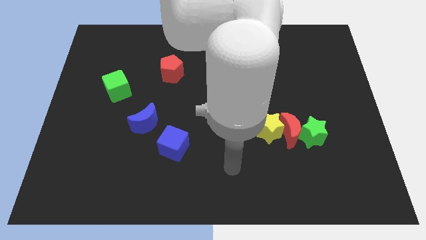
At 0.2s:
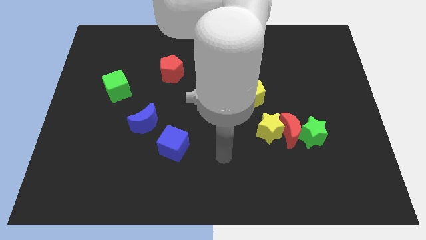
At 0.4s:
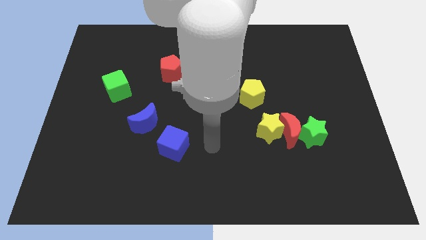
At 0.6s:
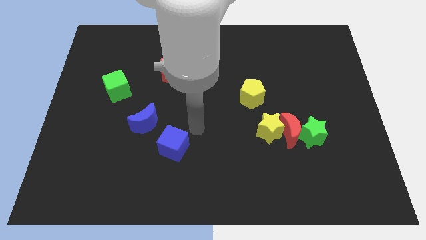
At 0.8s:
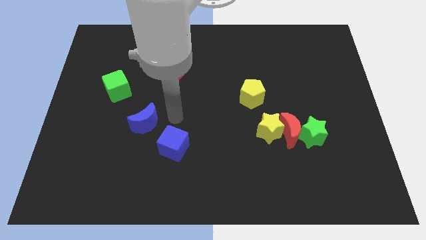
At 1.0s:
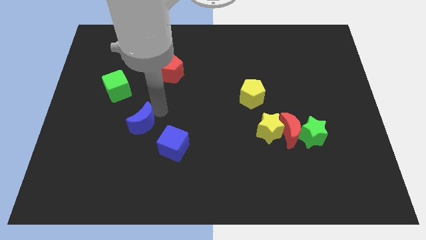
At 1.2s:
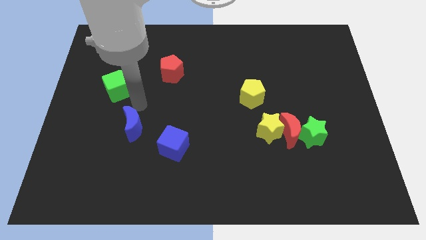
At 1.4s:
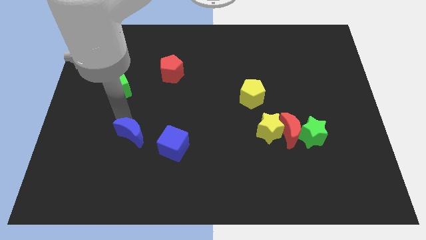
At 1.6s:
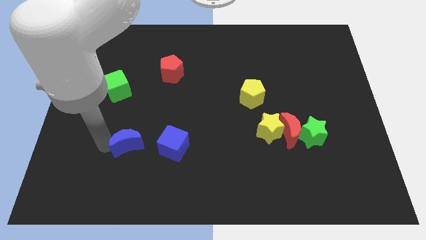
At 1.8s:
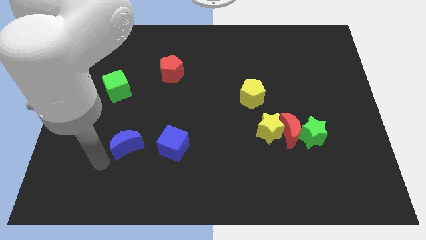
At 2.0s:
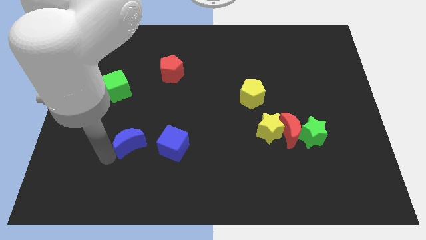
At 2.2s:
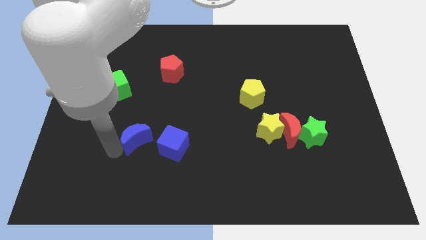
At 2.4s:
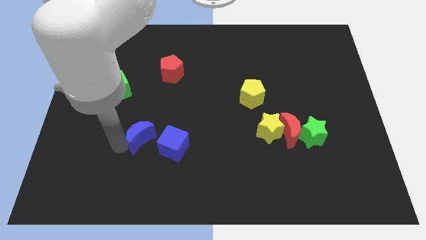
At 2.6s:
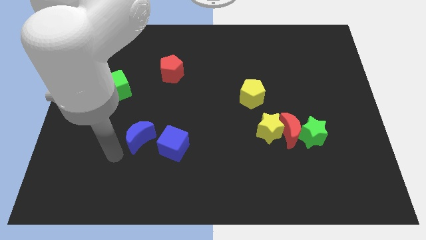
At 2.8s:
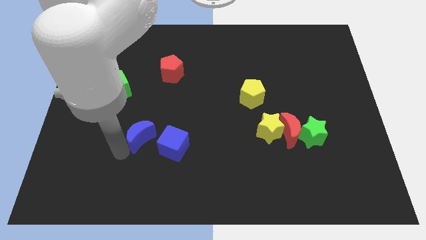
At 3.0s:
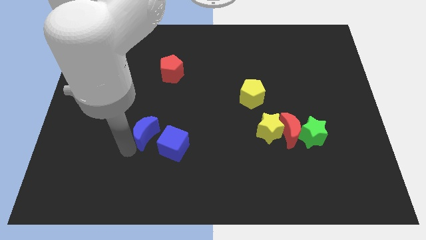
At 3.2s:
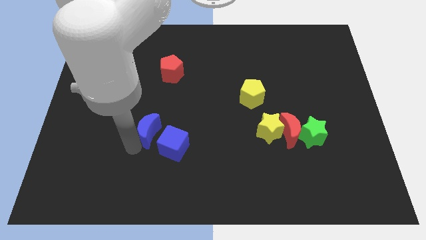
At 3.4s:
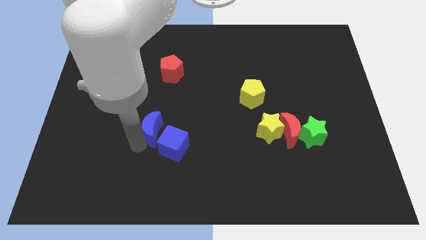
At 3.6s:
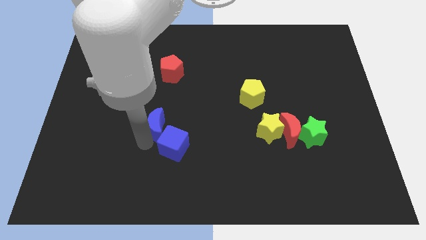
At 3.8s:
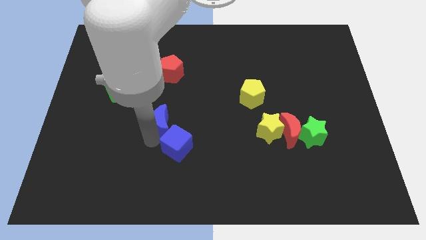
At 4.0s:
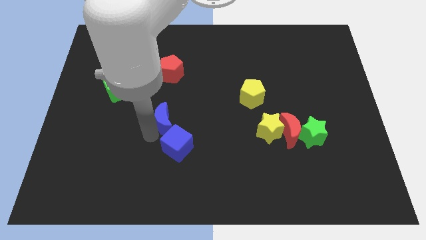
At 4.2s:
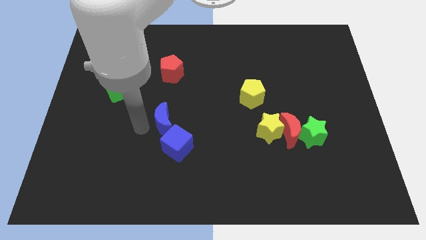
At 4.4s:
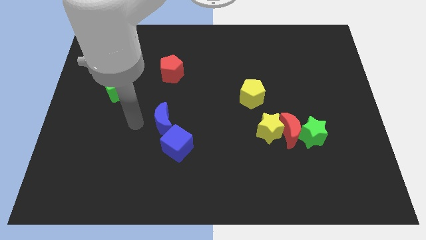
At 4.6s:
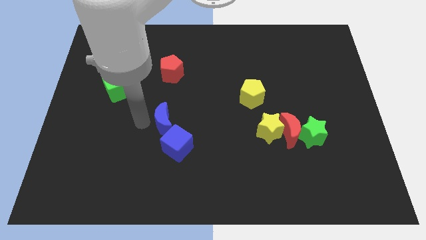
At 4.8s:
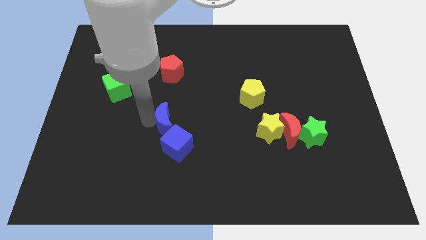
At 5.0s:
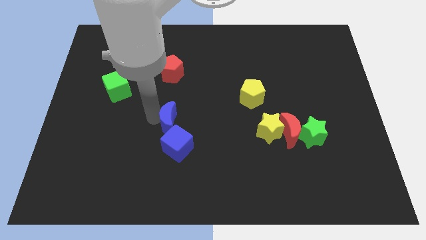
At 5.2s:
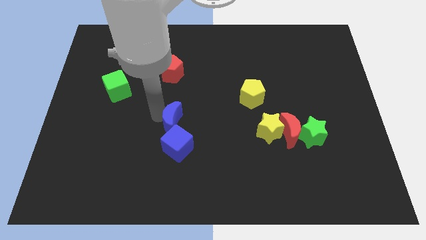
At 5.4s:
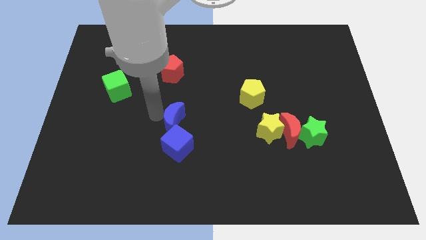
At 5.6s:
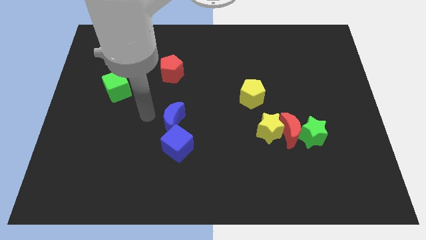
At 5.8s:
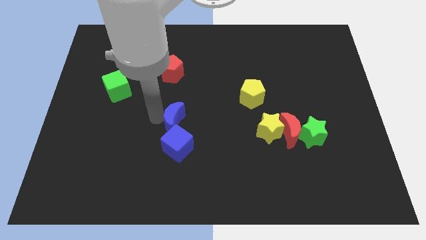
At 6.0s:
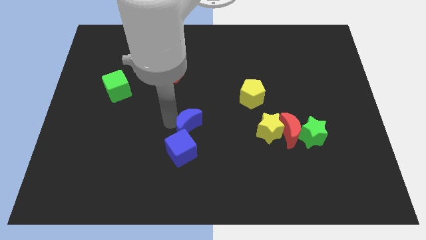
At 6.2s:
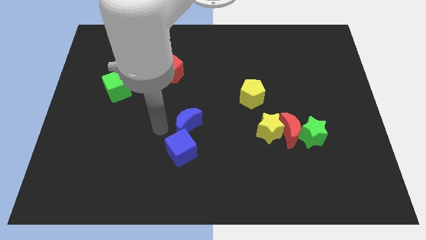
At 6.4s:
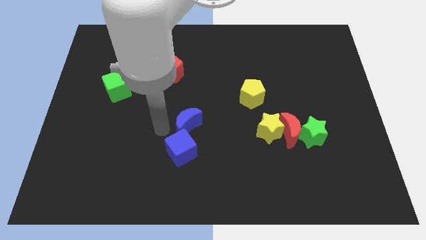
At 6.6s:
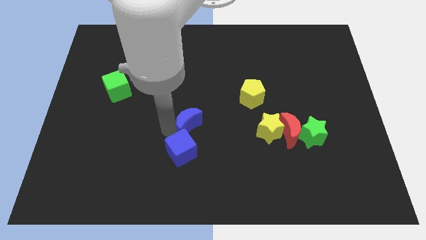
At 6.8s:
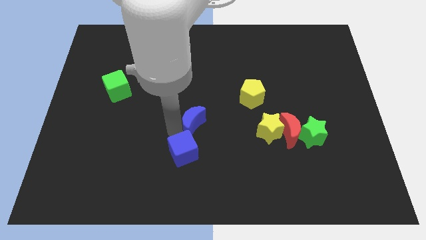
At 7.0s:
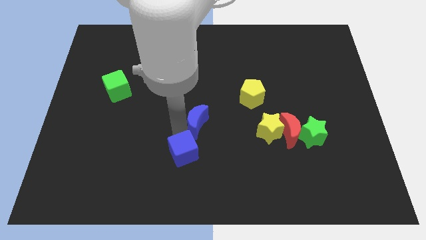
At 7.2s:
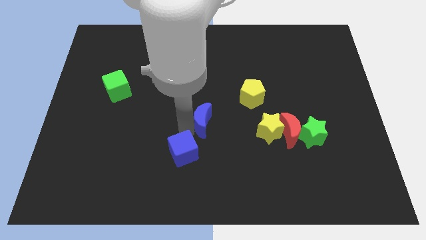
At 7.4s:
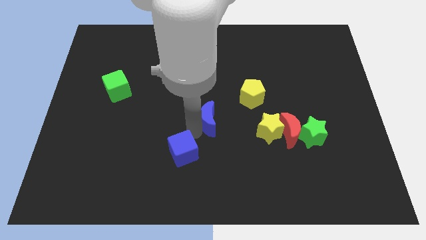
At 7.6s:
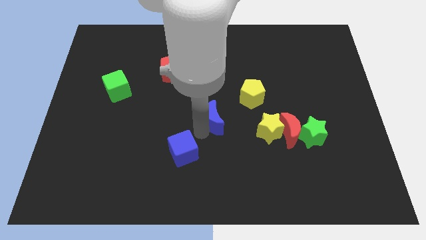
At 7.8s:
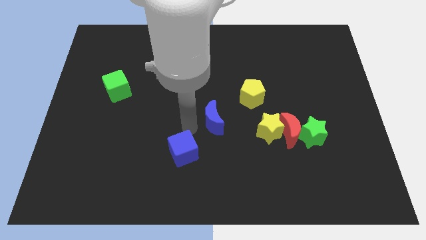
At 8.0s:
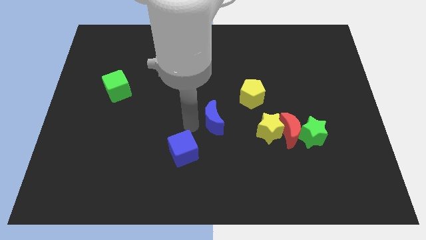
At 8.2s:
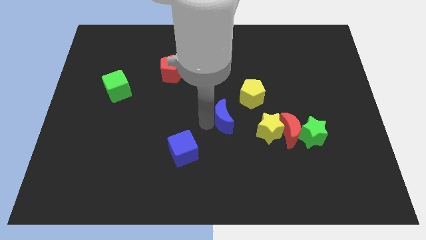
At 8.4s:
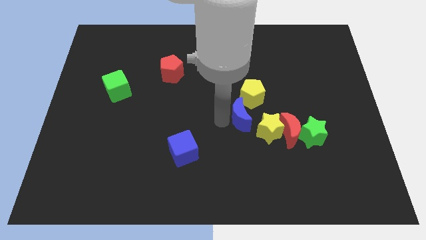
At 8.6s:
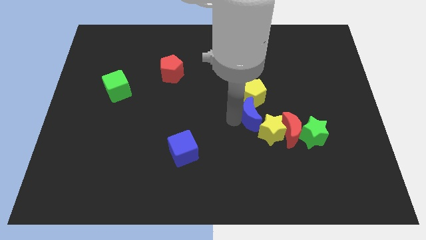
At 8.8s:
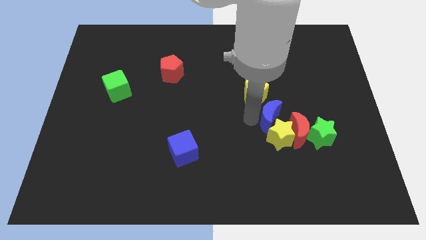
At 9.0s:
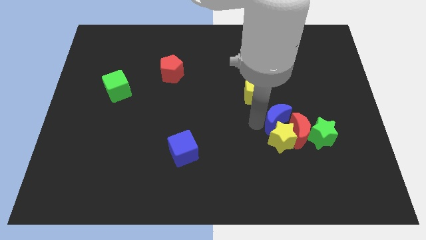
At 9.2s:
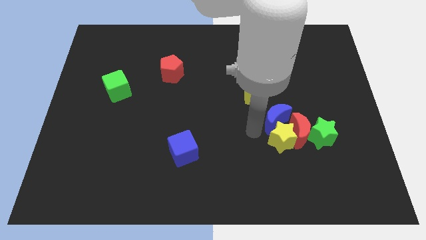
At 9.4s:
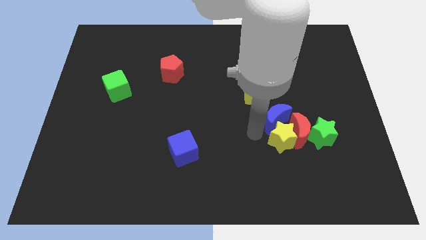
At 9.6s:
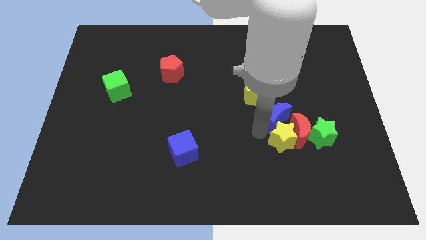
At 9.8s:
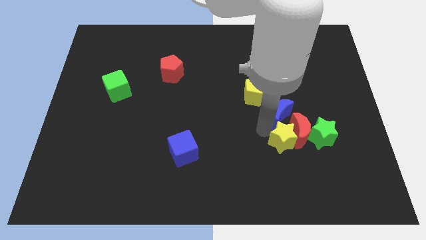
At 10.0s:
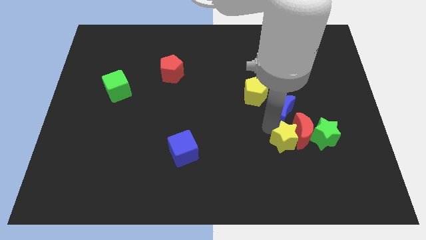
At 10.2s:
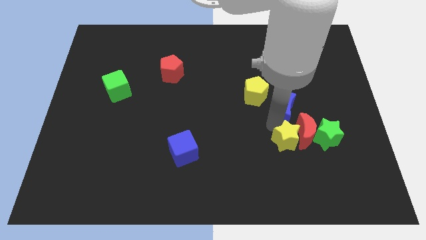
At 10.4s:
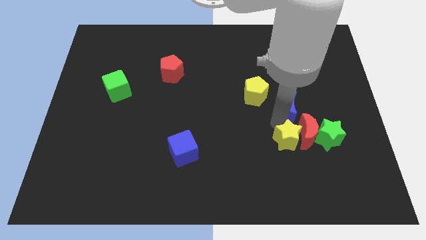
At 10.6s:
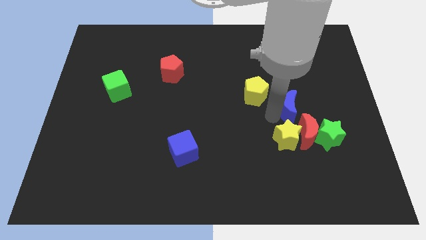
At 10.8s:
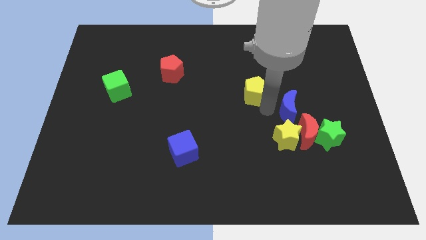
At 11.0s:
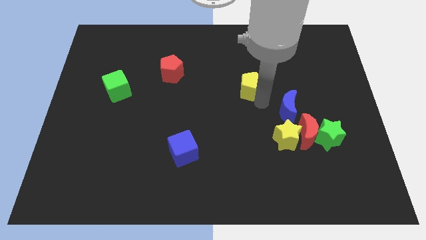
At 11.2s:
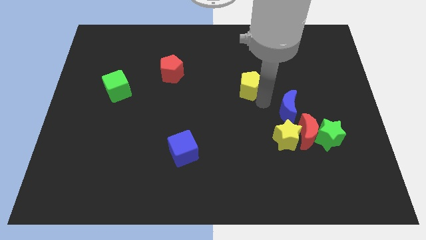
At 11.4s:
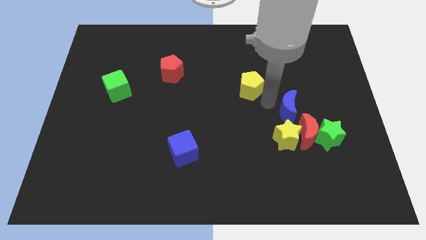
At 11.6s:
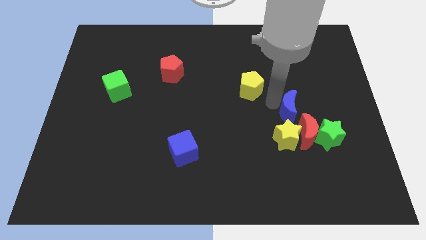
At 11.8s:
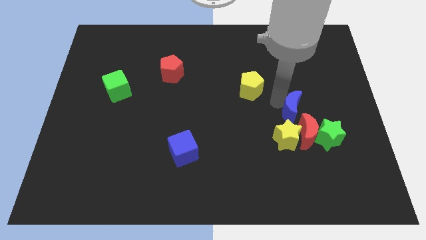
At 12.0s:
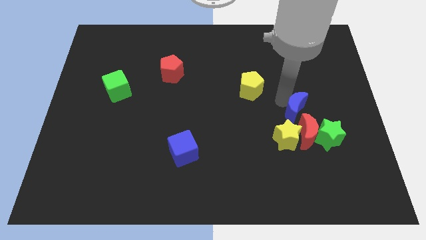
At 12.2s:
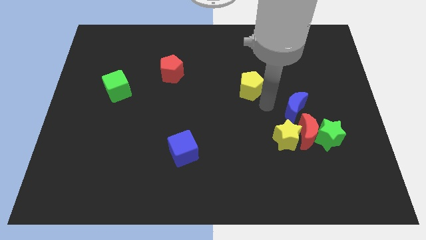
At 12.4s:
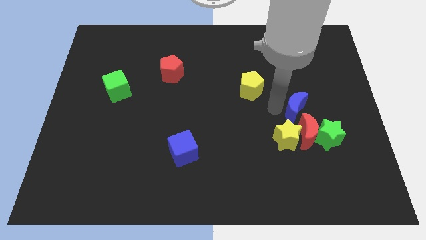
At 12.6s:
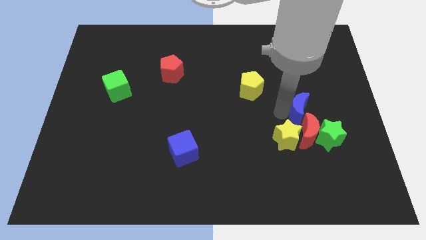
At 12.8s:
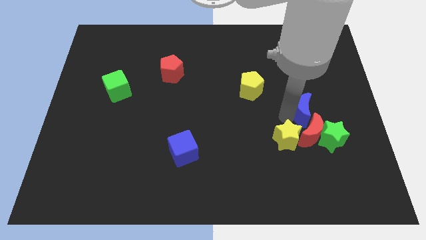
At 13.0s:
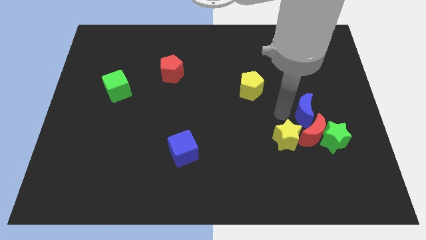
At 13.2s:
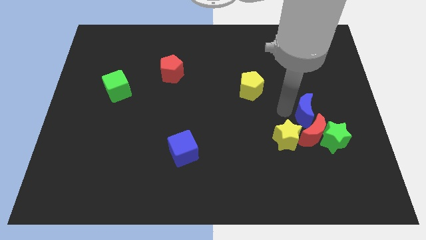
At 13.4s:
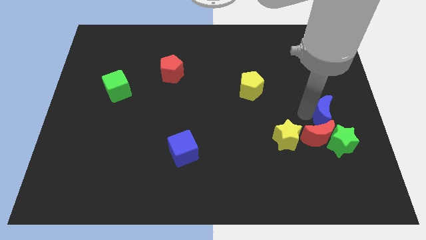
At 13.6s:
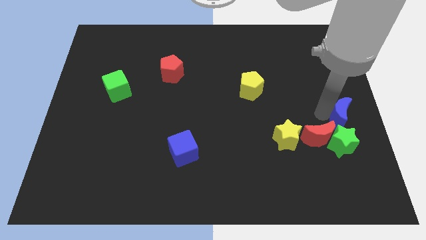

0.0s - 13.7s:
move the blue moon diagonally up and to the right of the green star
